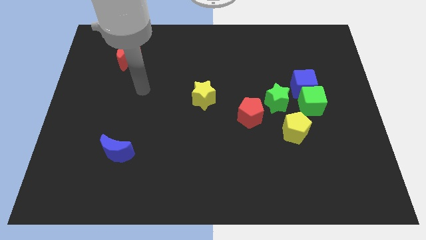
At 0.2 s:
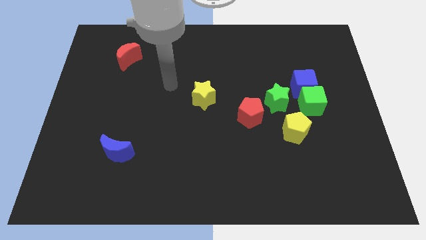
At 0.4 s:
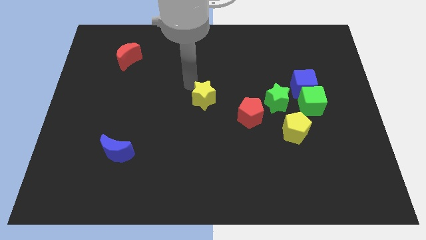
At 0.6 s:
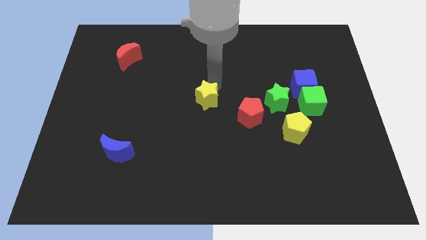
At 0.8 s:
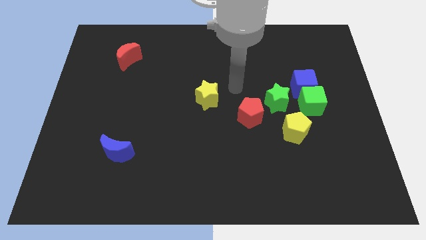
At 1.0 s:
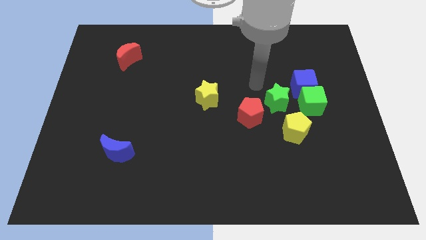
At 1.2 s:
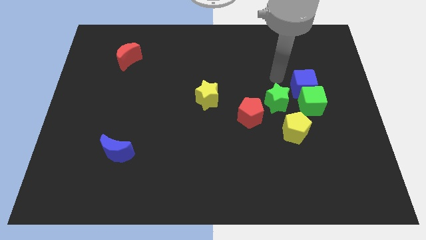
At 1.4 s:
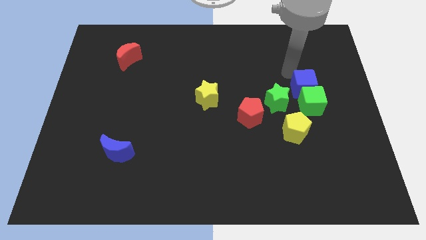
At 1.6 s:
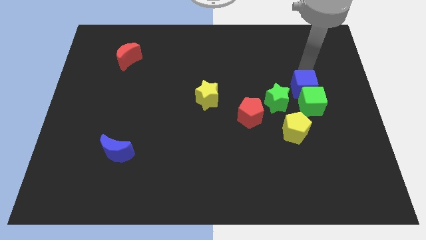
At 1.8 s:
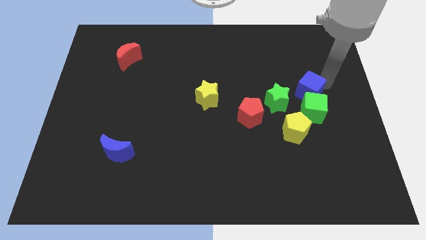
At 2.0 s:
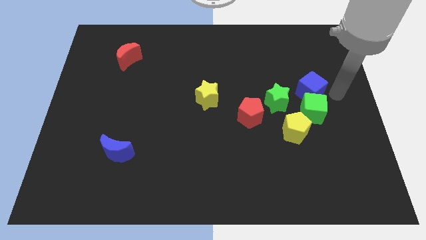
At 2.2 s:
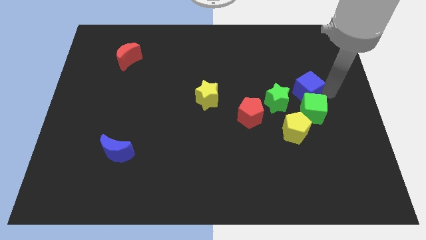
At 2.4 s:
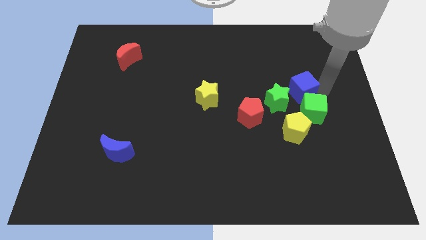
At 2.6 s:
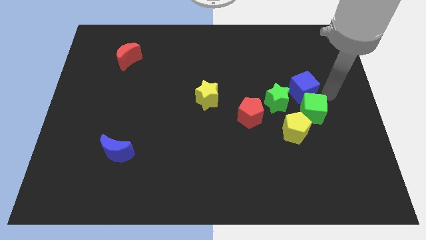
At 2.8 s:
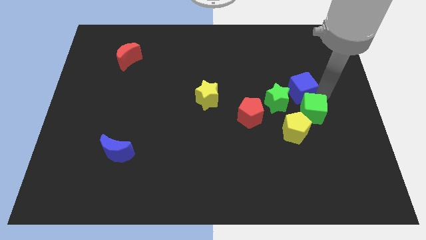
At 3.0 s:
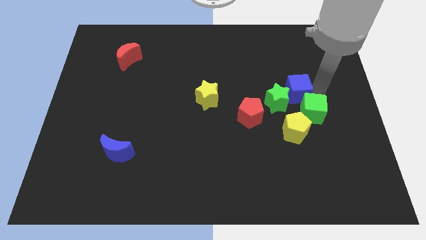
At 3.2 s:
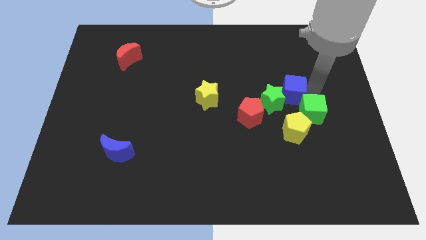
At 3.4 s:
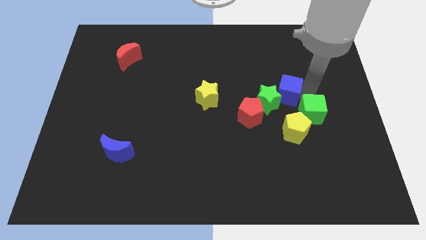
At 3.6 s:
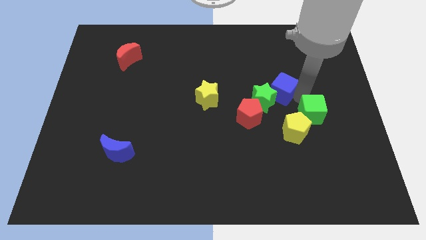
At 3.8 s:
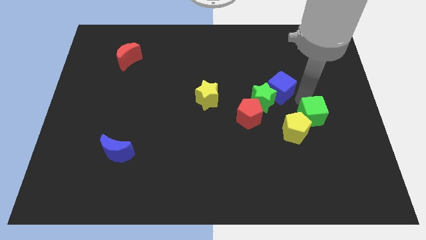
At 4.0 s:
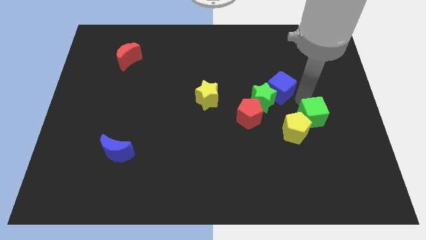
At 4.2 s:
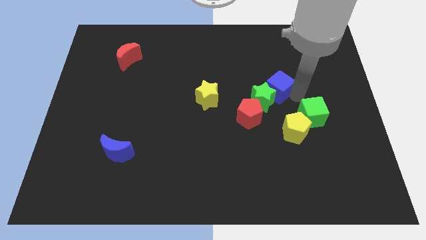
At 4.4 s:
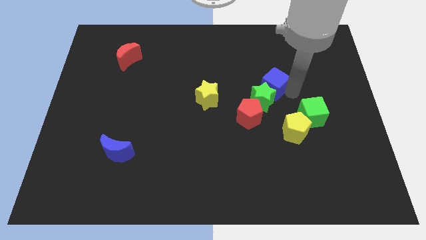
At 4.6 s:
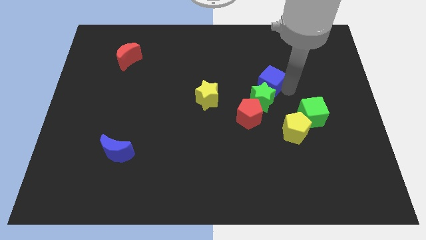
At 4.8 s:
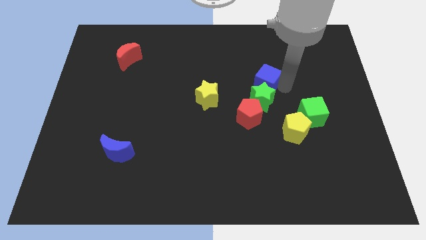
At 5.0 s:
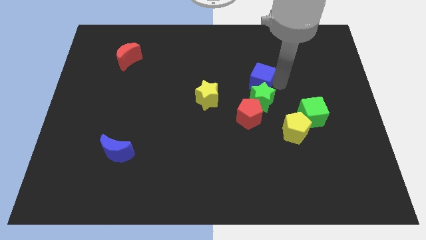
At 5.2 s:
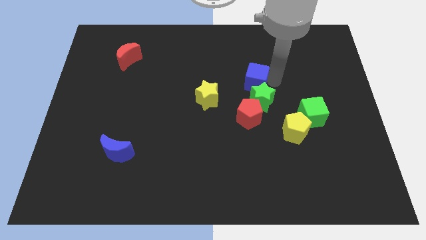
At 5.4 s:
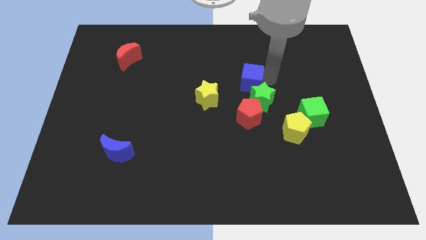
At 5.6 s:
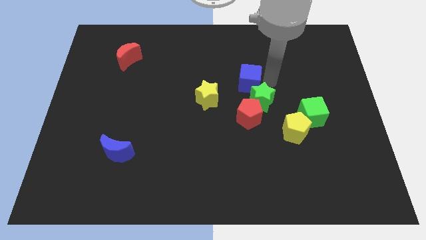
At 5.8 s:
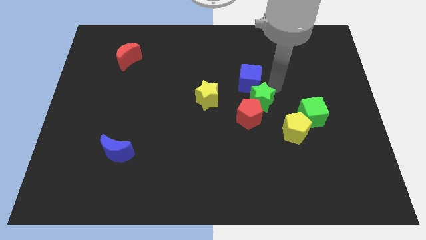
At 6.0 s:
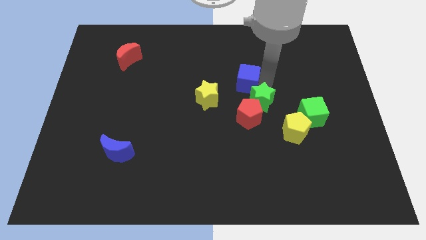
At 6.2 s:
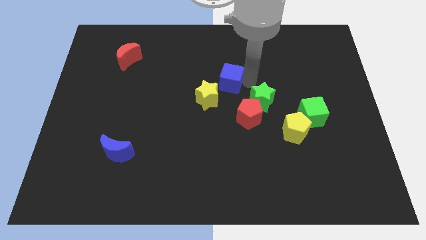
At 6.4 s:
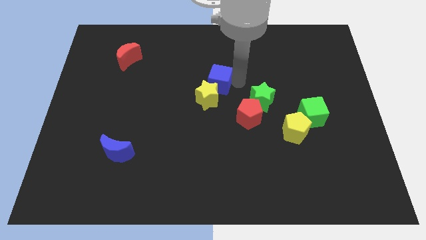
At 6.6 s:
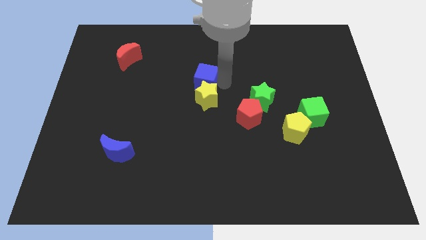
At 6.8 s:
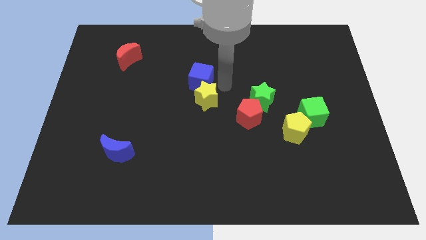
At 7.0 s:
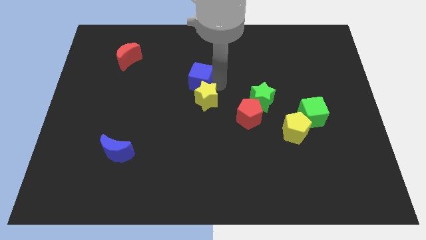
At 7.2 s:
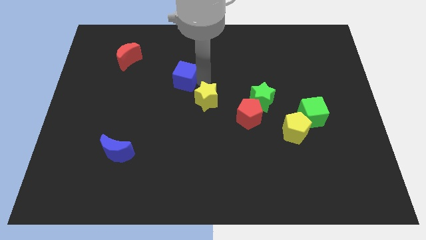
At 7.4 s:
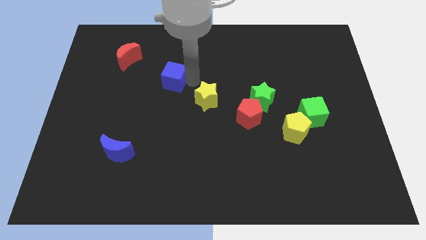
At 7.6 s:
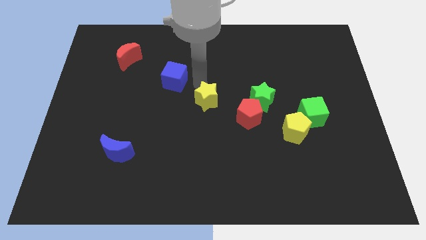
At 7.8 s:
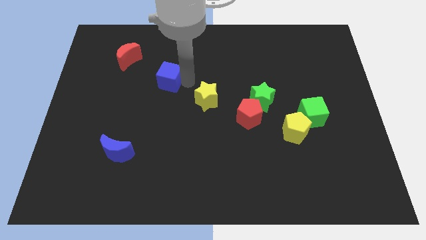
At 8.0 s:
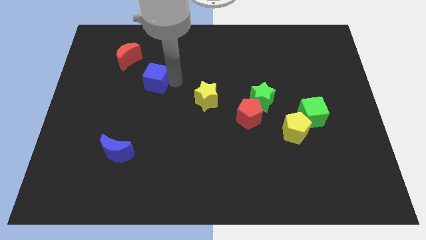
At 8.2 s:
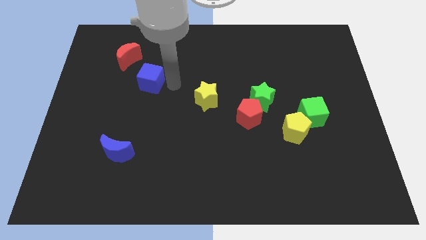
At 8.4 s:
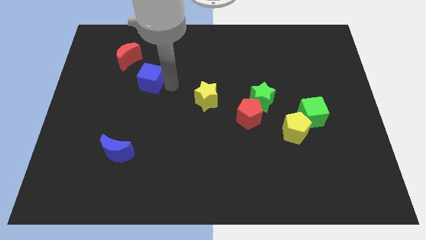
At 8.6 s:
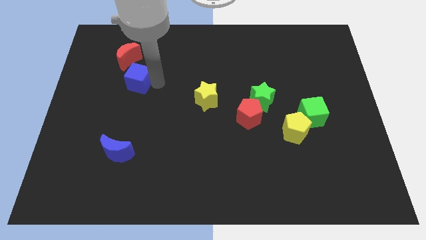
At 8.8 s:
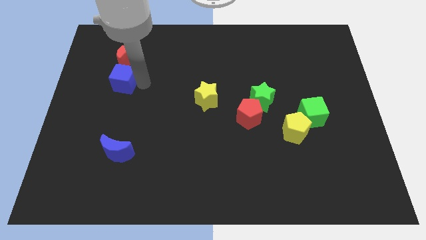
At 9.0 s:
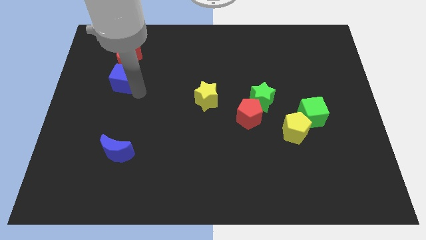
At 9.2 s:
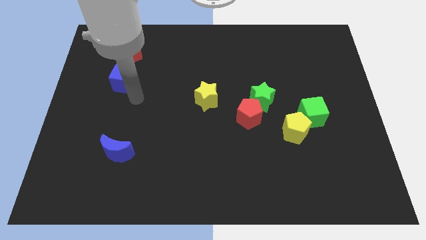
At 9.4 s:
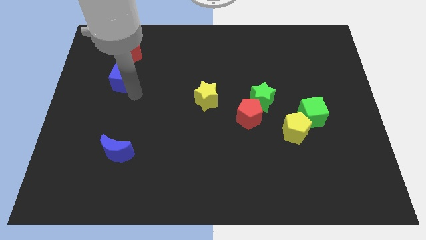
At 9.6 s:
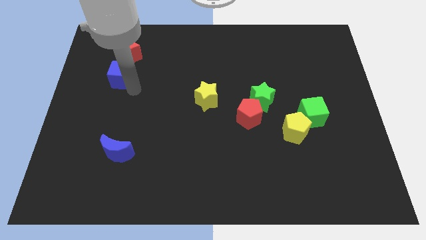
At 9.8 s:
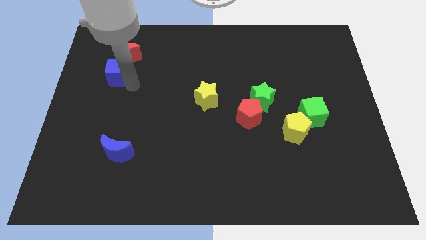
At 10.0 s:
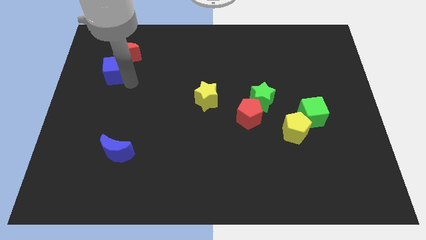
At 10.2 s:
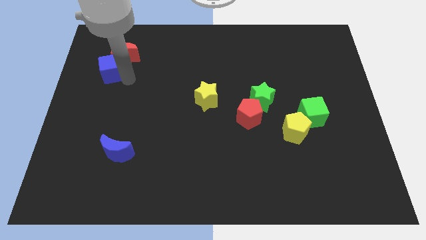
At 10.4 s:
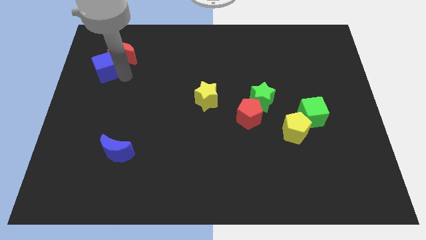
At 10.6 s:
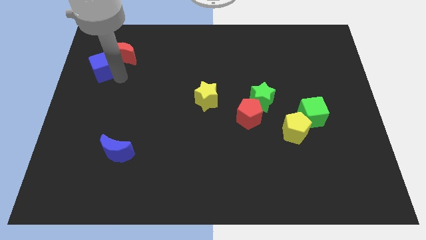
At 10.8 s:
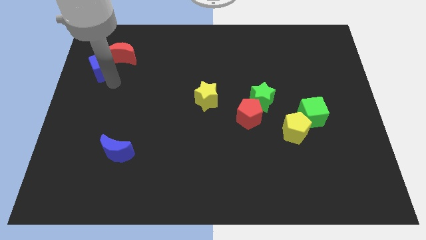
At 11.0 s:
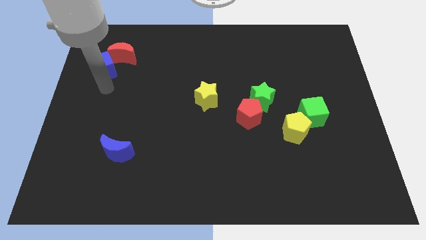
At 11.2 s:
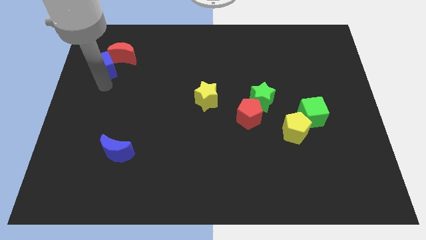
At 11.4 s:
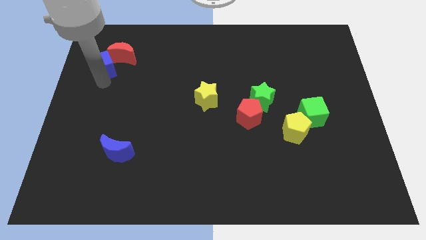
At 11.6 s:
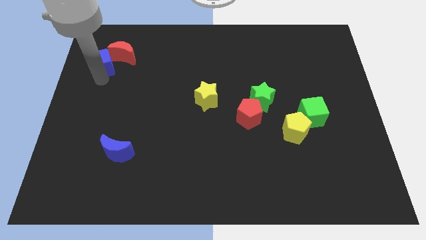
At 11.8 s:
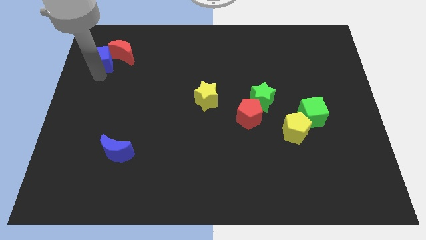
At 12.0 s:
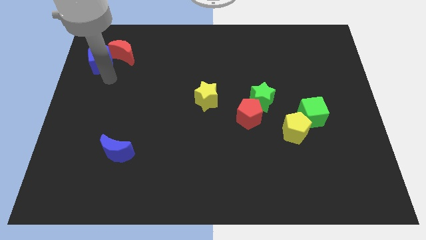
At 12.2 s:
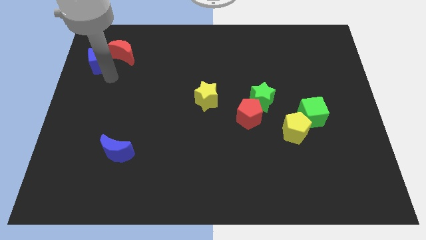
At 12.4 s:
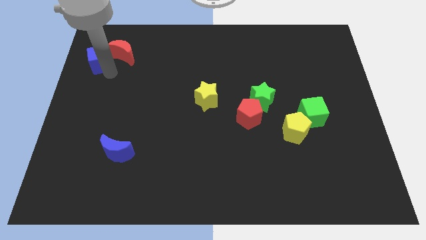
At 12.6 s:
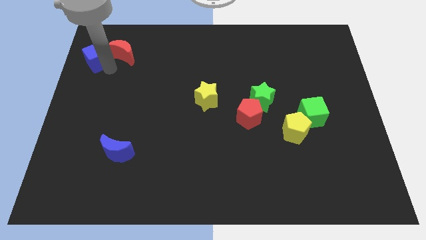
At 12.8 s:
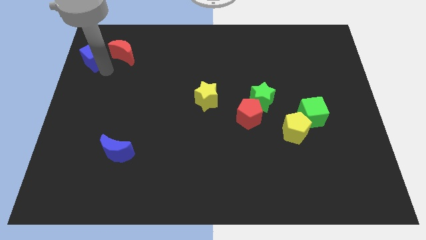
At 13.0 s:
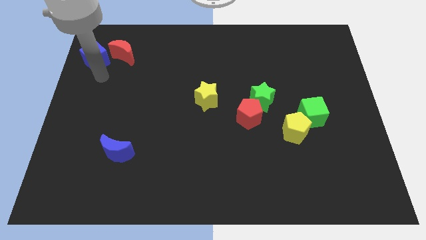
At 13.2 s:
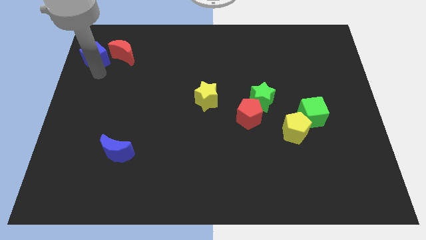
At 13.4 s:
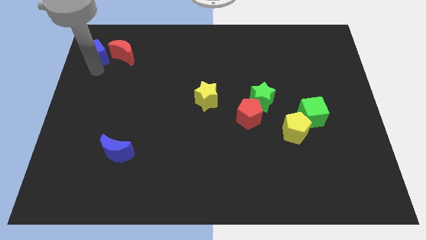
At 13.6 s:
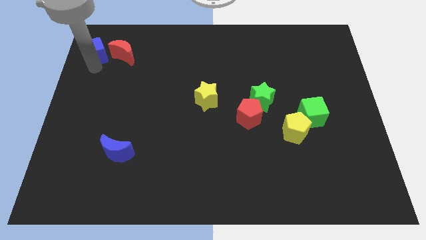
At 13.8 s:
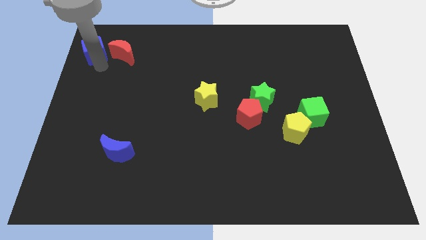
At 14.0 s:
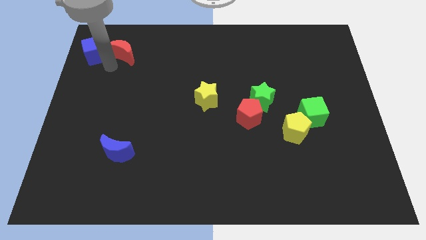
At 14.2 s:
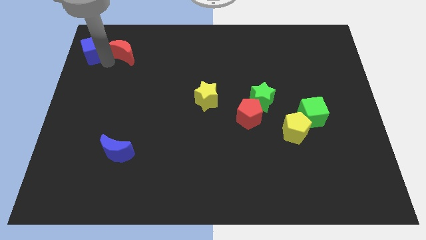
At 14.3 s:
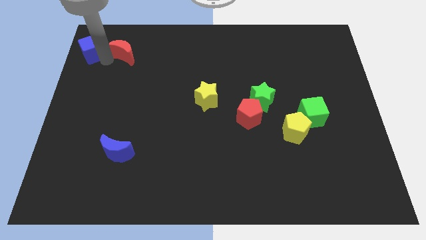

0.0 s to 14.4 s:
push the blue cube to the top left corner
